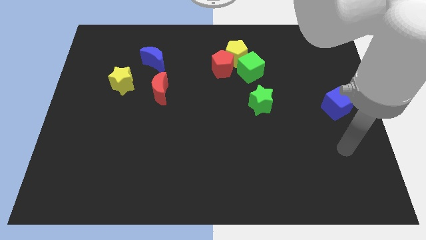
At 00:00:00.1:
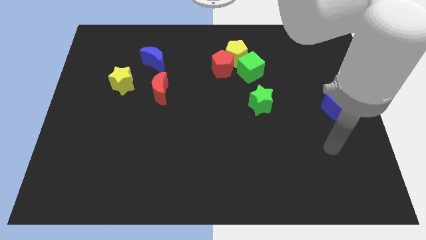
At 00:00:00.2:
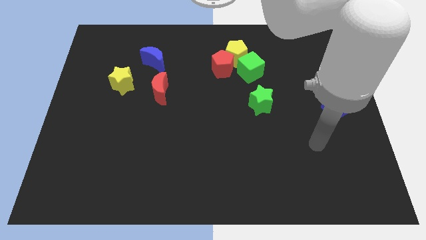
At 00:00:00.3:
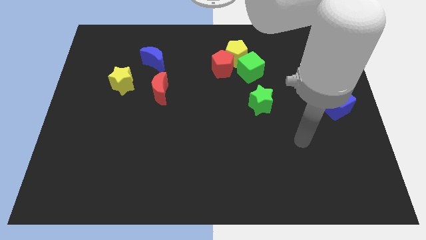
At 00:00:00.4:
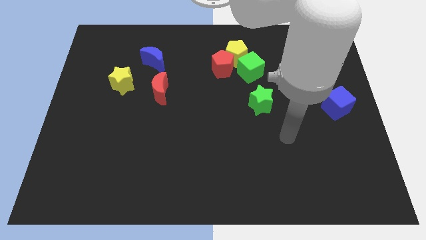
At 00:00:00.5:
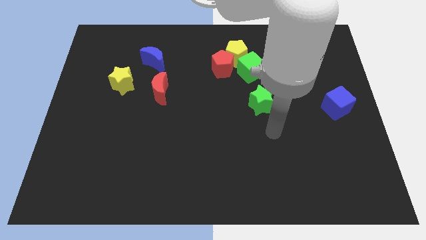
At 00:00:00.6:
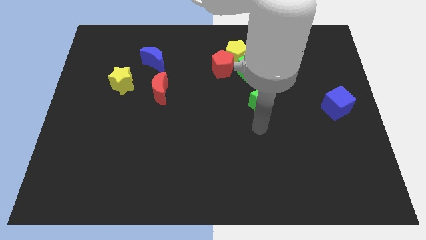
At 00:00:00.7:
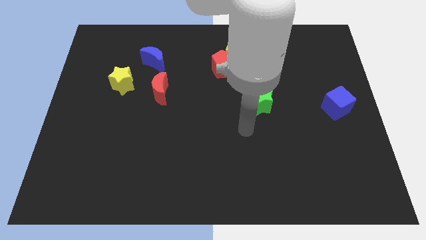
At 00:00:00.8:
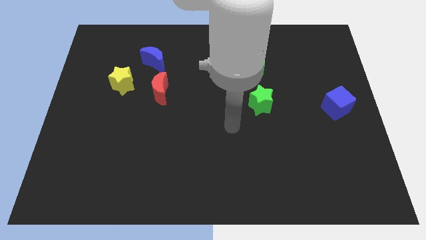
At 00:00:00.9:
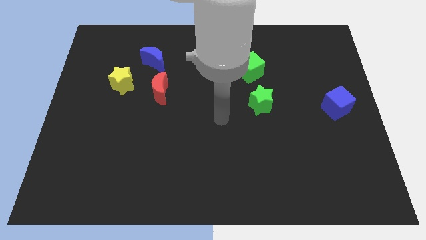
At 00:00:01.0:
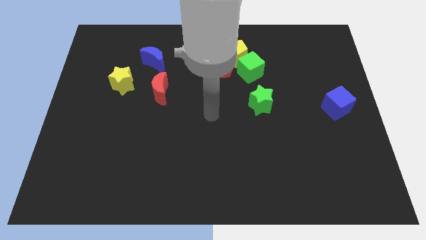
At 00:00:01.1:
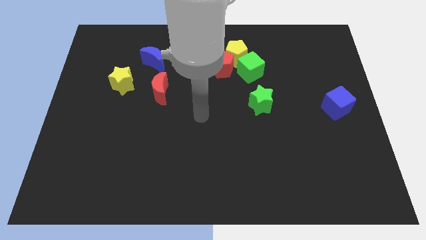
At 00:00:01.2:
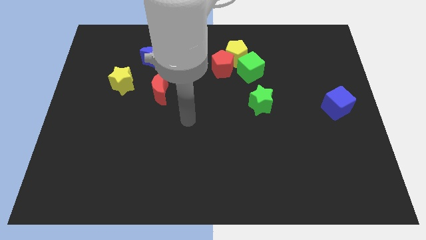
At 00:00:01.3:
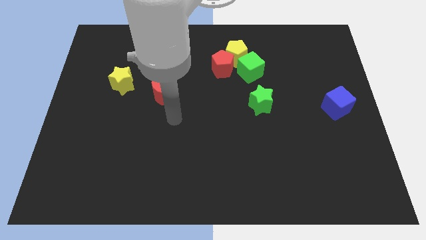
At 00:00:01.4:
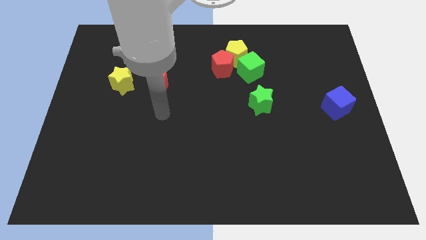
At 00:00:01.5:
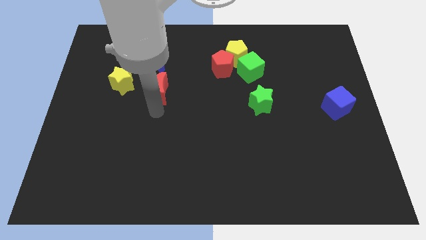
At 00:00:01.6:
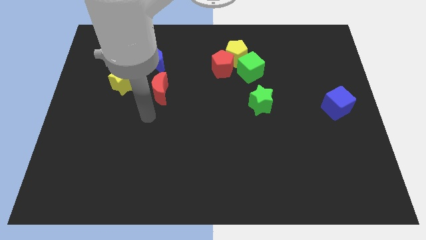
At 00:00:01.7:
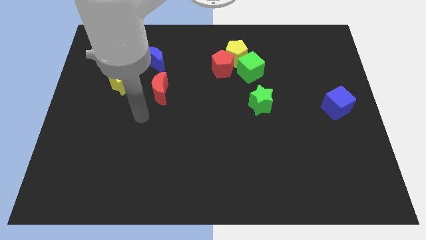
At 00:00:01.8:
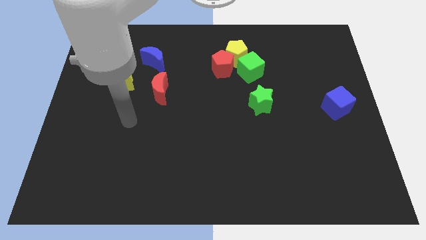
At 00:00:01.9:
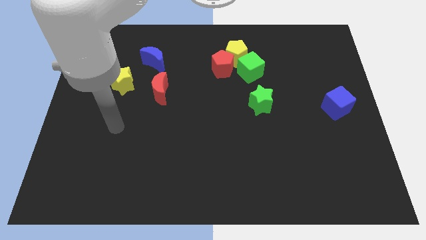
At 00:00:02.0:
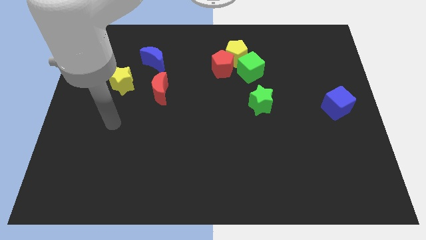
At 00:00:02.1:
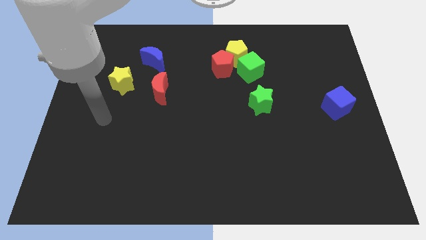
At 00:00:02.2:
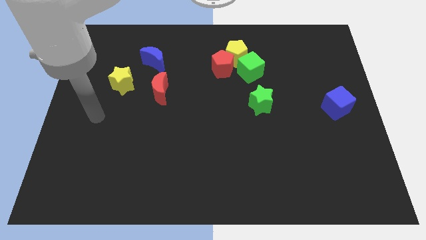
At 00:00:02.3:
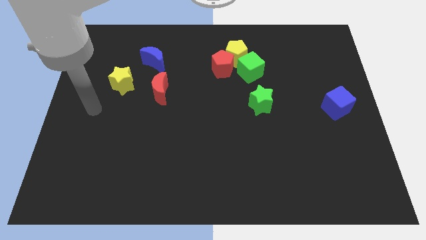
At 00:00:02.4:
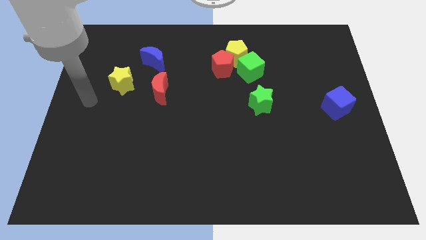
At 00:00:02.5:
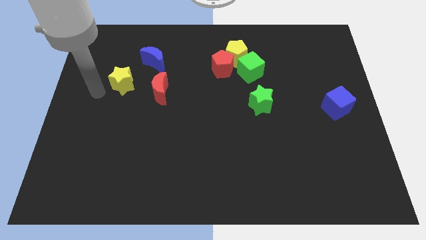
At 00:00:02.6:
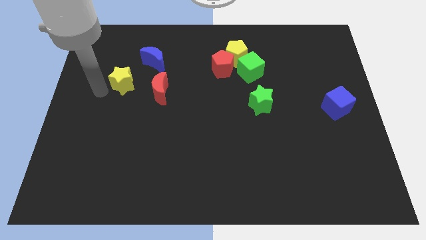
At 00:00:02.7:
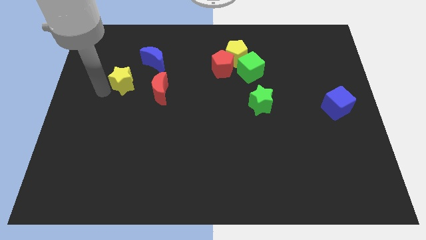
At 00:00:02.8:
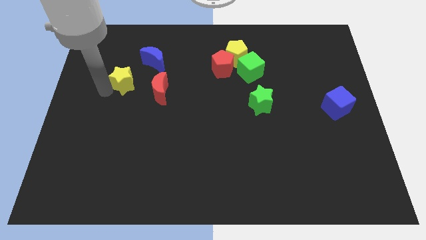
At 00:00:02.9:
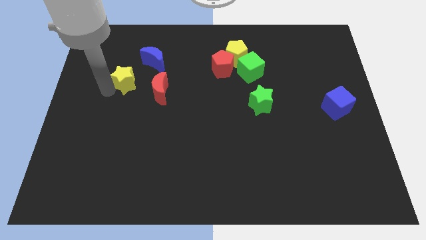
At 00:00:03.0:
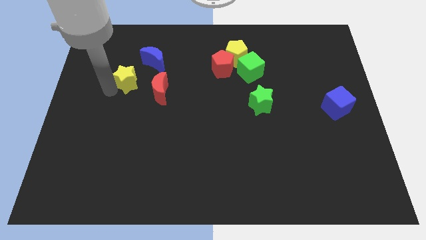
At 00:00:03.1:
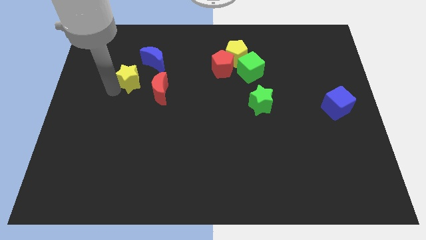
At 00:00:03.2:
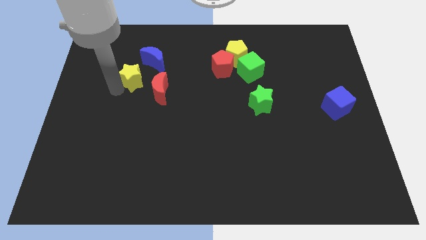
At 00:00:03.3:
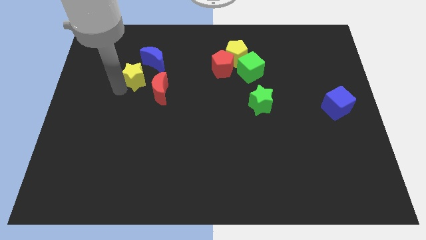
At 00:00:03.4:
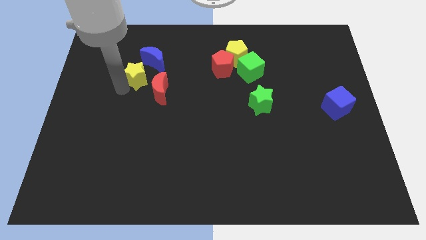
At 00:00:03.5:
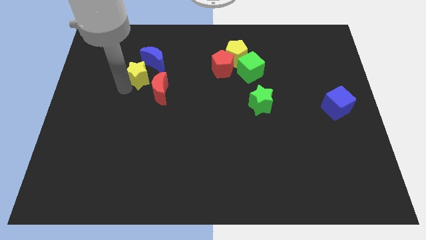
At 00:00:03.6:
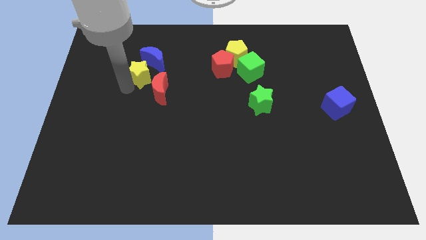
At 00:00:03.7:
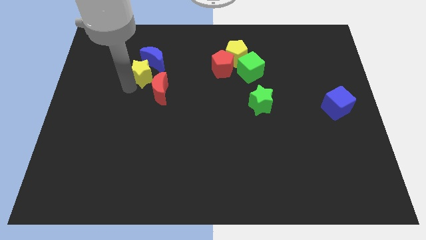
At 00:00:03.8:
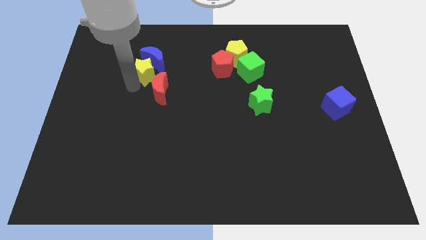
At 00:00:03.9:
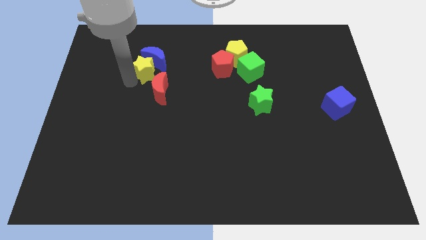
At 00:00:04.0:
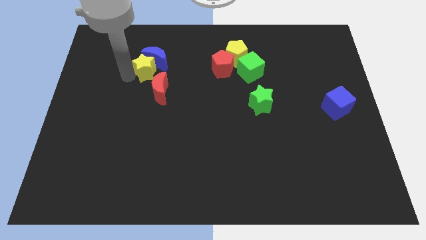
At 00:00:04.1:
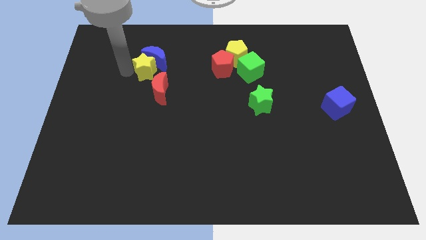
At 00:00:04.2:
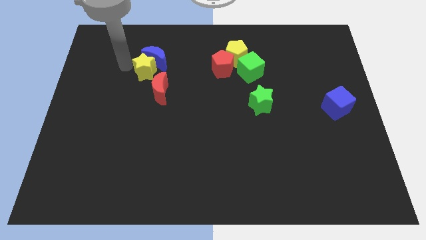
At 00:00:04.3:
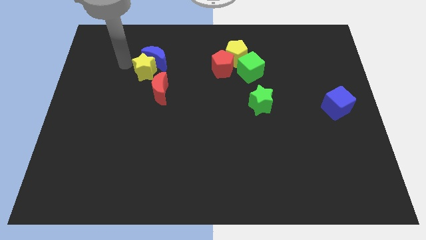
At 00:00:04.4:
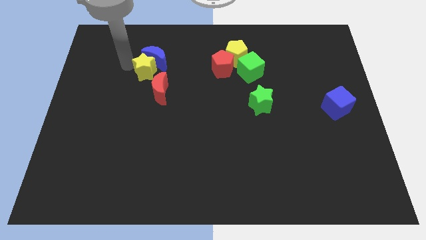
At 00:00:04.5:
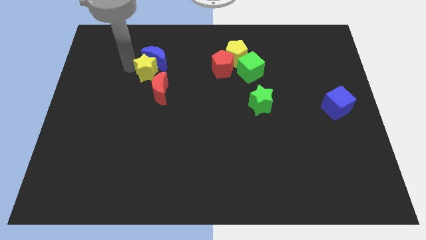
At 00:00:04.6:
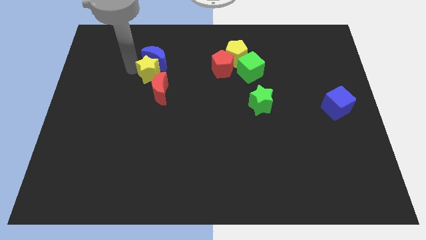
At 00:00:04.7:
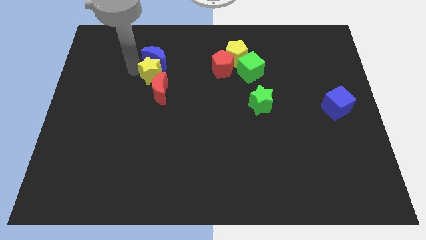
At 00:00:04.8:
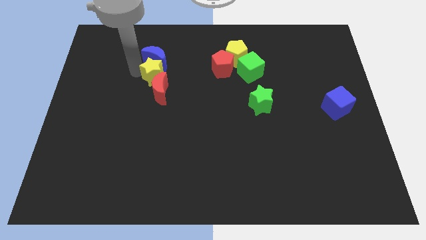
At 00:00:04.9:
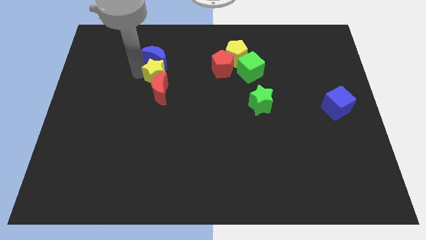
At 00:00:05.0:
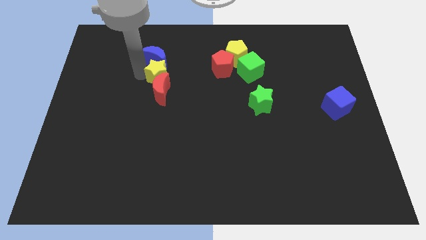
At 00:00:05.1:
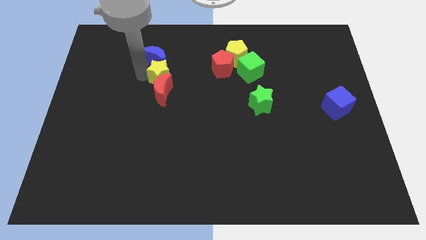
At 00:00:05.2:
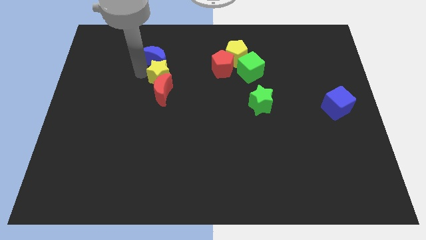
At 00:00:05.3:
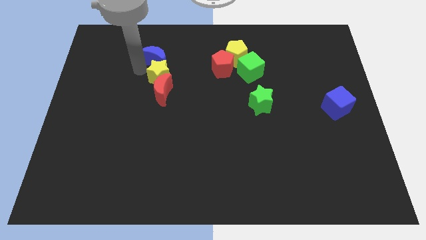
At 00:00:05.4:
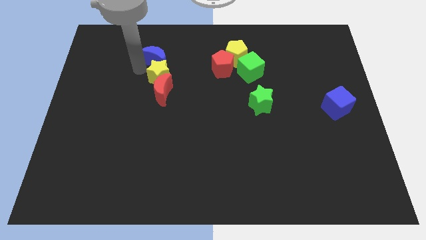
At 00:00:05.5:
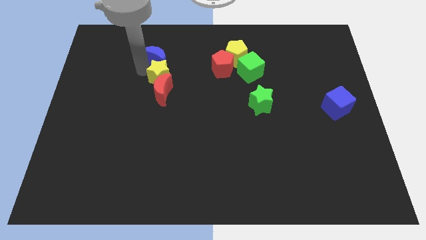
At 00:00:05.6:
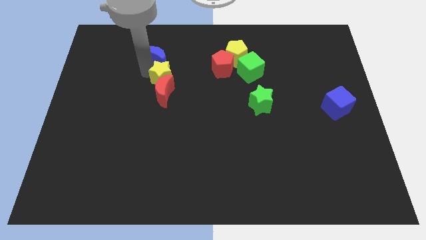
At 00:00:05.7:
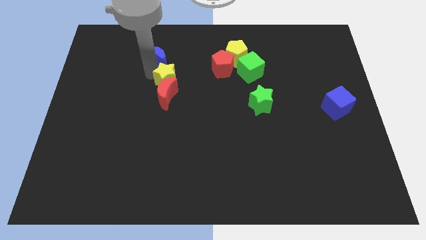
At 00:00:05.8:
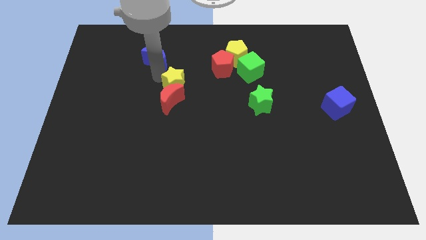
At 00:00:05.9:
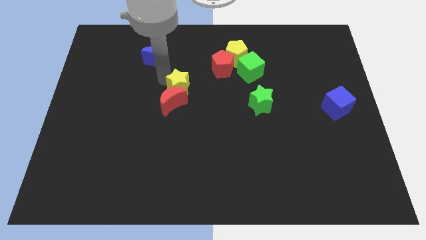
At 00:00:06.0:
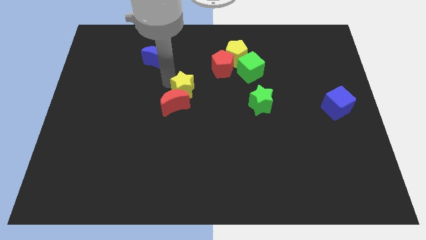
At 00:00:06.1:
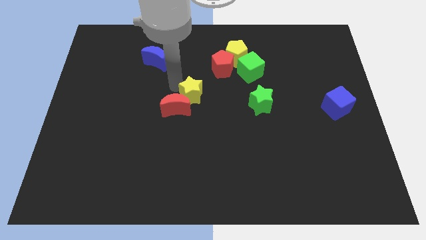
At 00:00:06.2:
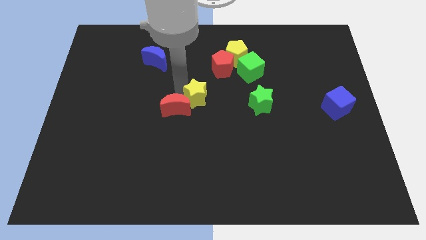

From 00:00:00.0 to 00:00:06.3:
move the yellow star left of the green star
